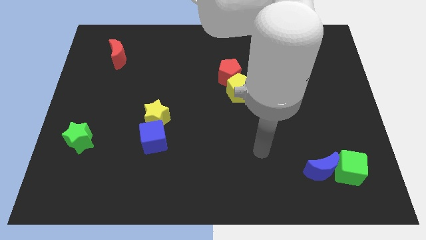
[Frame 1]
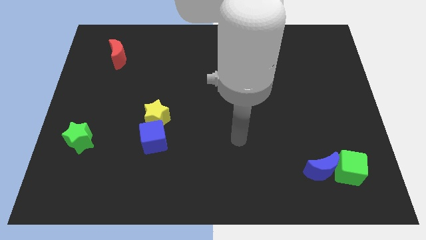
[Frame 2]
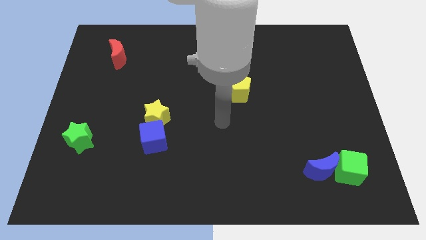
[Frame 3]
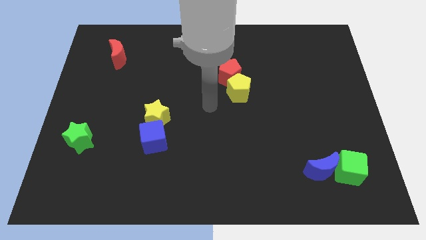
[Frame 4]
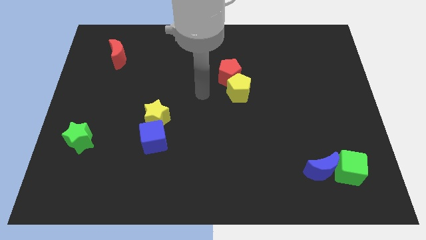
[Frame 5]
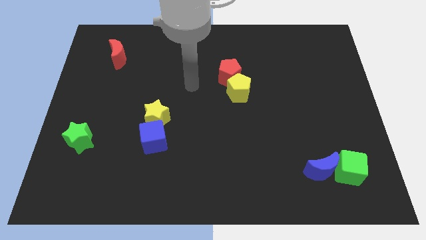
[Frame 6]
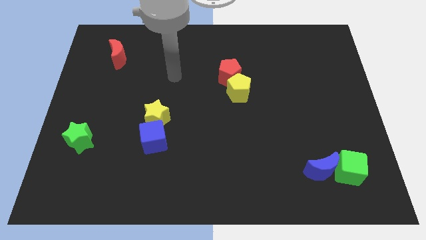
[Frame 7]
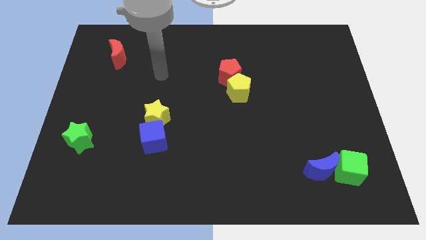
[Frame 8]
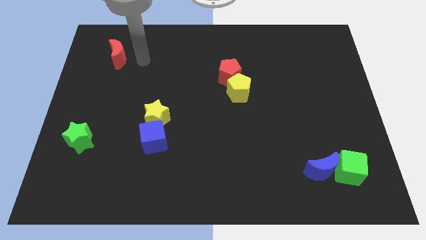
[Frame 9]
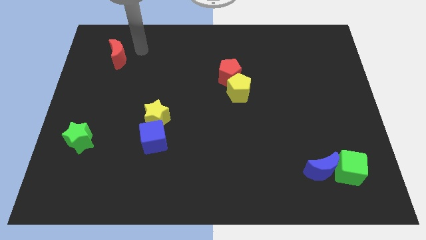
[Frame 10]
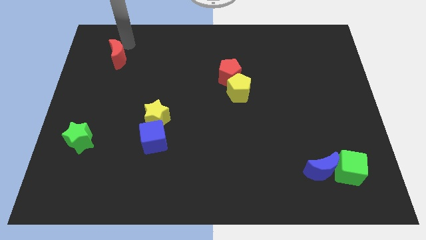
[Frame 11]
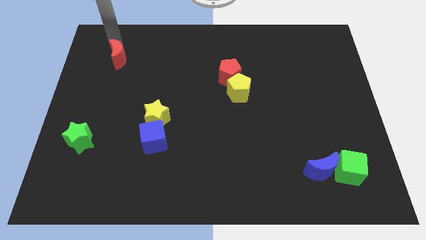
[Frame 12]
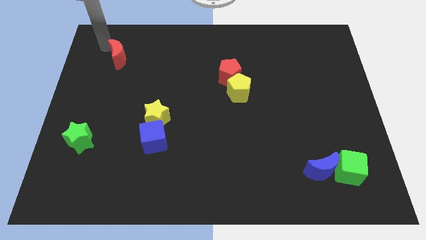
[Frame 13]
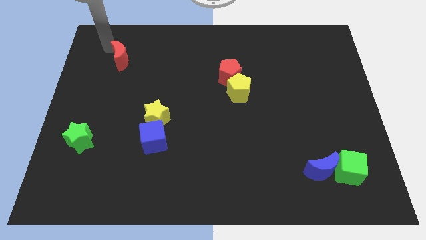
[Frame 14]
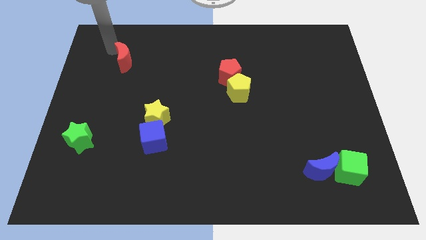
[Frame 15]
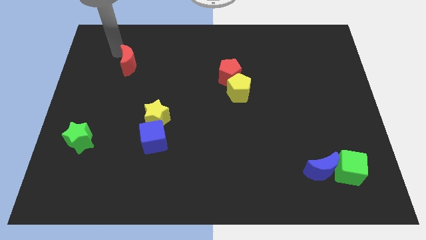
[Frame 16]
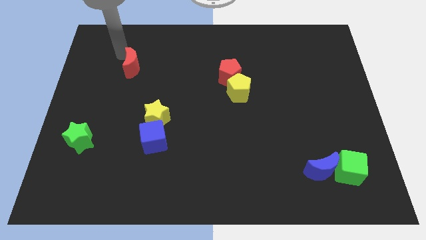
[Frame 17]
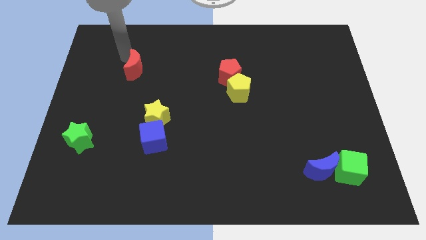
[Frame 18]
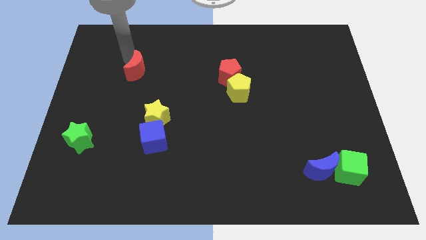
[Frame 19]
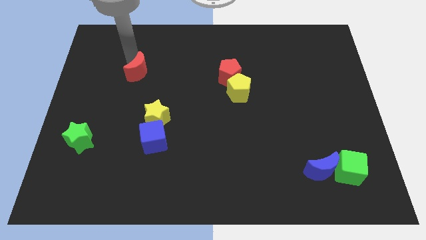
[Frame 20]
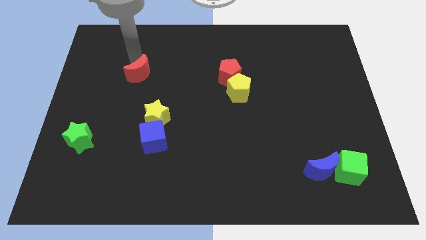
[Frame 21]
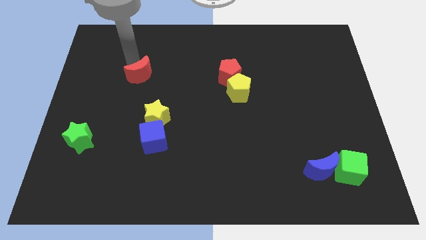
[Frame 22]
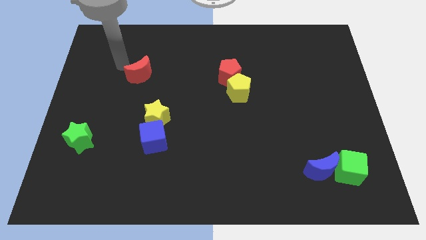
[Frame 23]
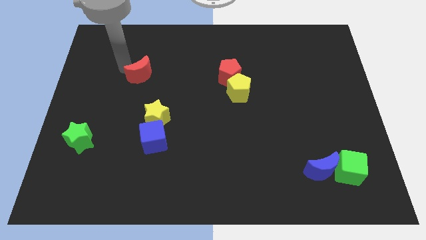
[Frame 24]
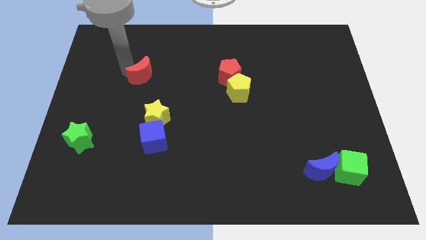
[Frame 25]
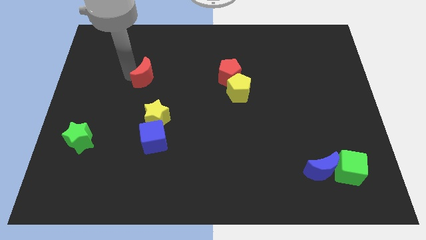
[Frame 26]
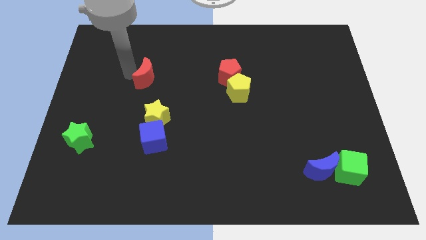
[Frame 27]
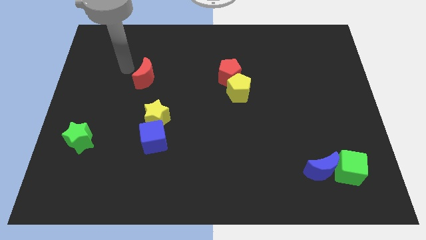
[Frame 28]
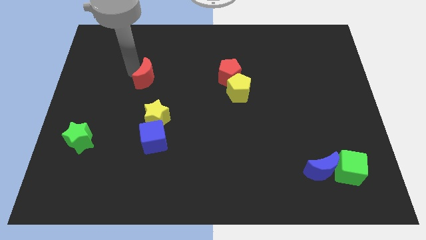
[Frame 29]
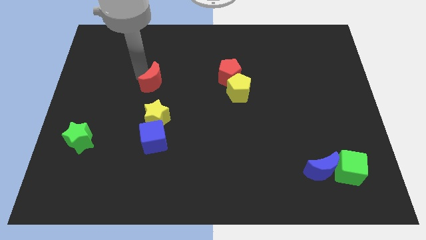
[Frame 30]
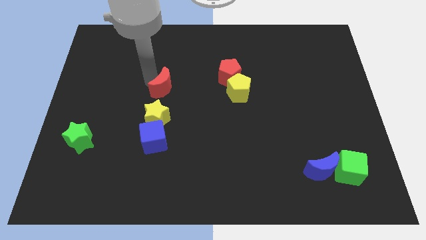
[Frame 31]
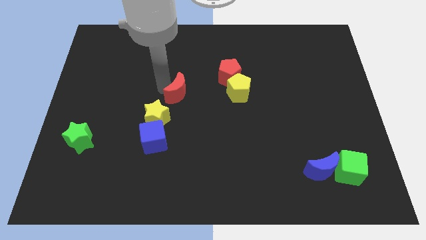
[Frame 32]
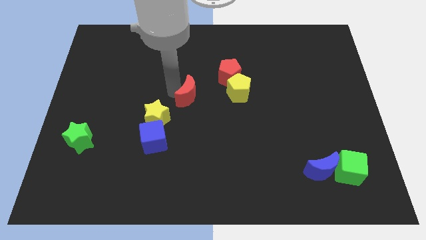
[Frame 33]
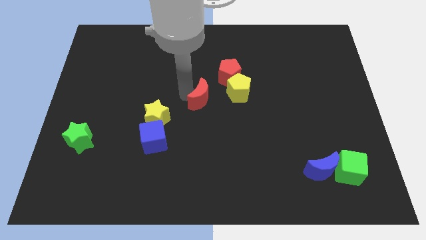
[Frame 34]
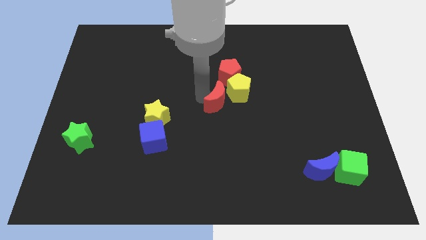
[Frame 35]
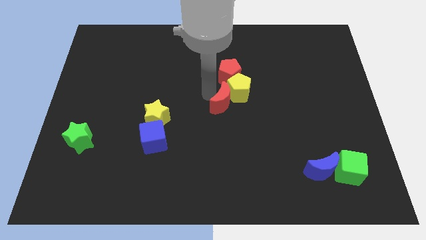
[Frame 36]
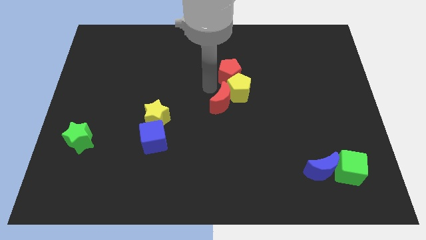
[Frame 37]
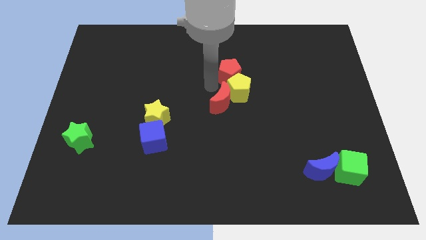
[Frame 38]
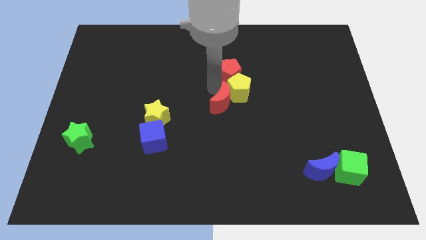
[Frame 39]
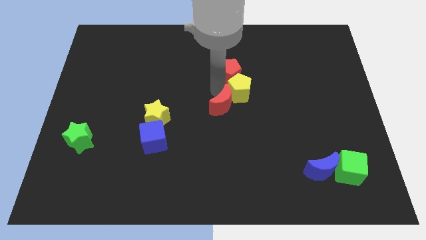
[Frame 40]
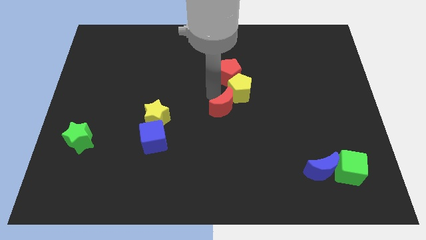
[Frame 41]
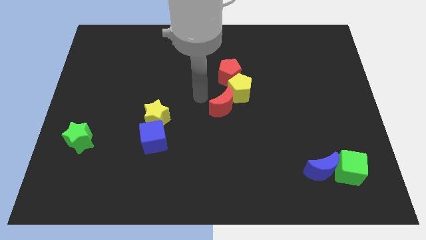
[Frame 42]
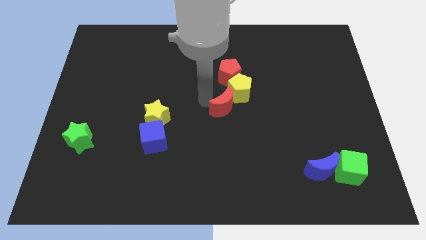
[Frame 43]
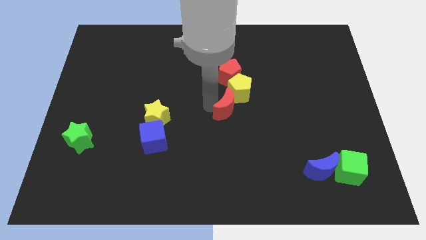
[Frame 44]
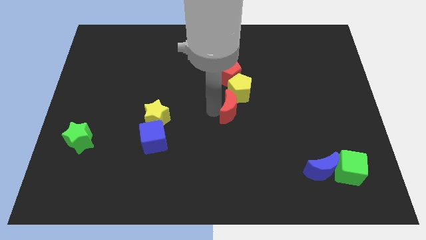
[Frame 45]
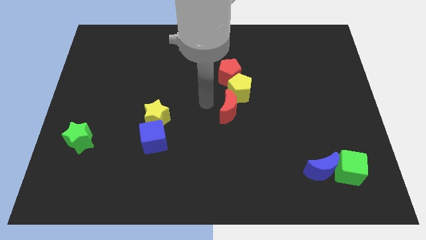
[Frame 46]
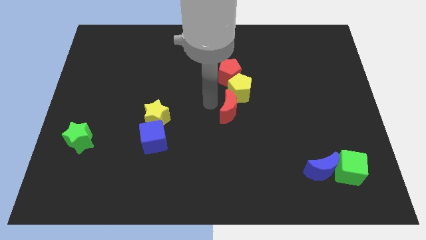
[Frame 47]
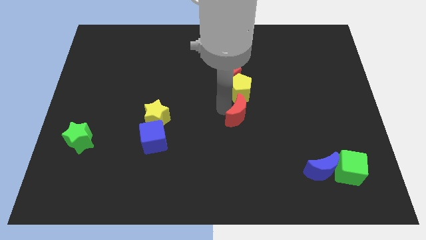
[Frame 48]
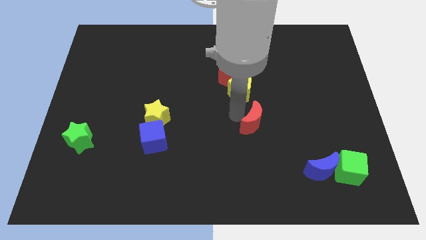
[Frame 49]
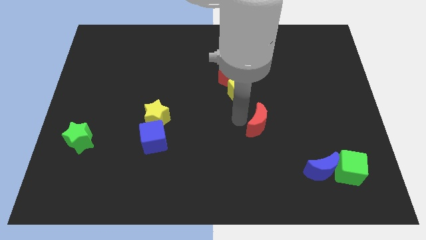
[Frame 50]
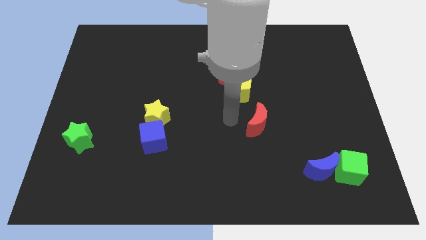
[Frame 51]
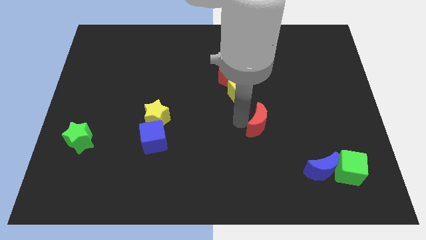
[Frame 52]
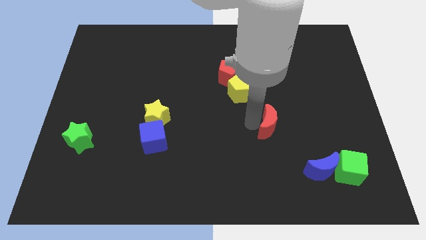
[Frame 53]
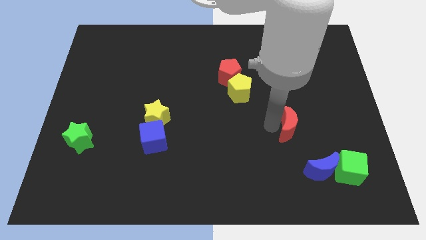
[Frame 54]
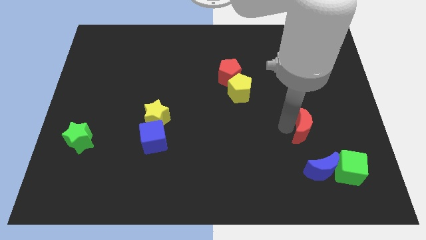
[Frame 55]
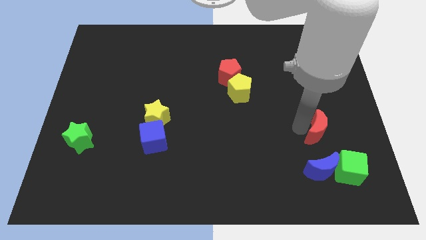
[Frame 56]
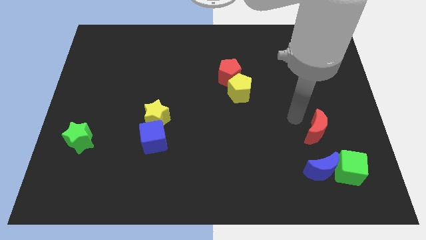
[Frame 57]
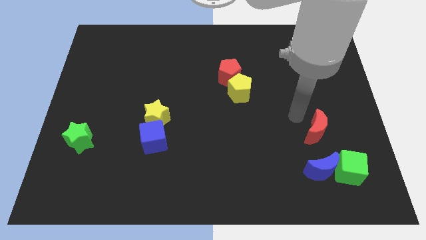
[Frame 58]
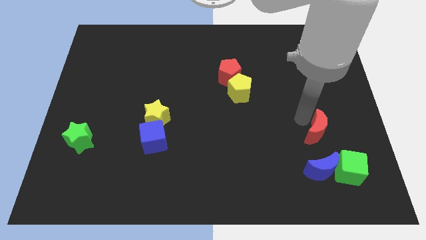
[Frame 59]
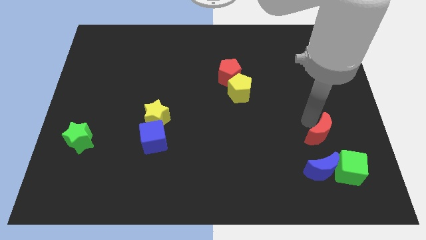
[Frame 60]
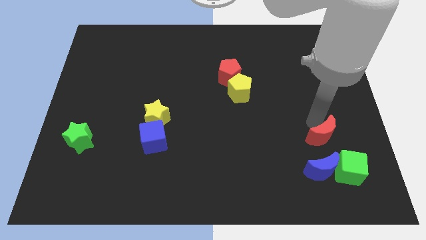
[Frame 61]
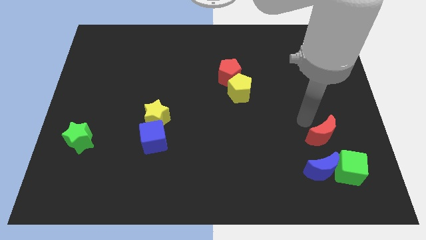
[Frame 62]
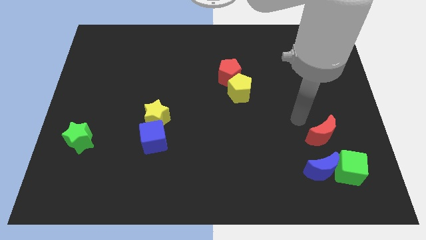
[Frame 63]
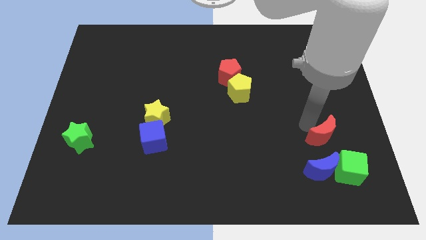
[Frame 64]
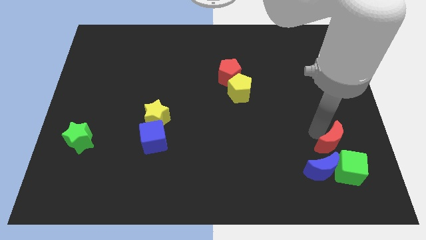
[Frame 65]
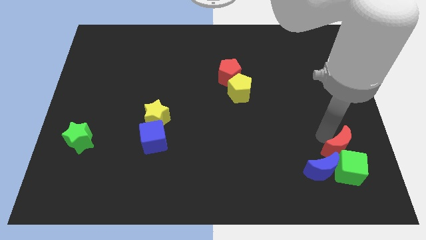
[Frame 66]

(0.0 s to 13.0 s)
push the red moon to the green cube

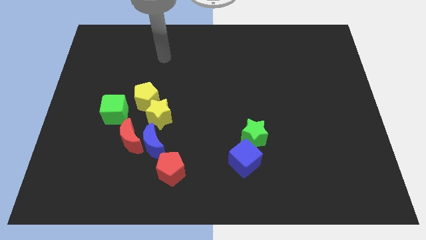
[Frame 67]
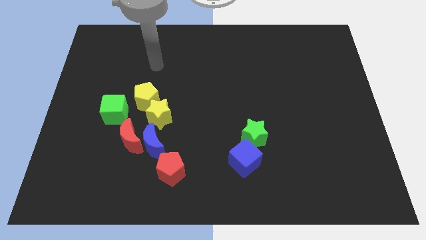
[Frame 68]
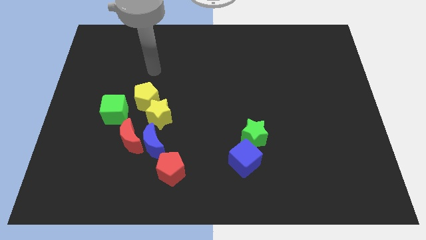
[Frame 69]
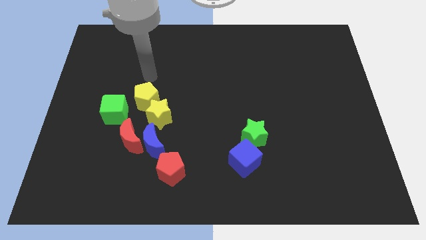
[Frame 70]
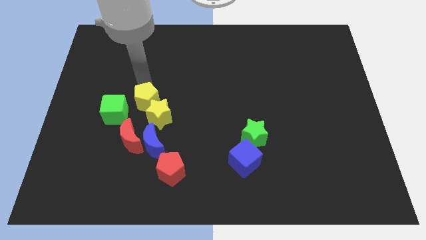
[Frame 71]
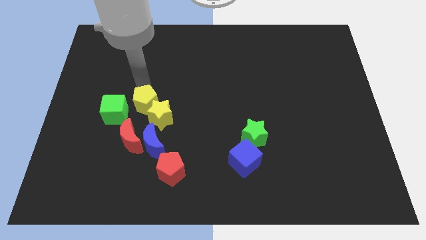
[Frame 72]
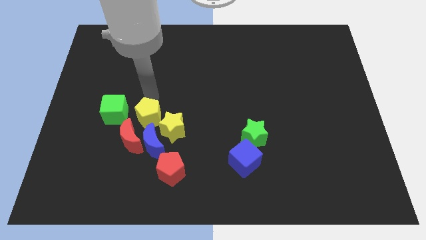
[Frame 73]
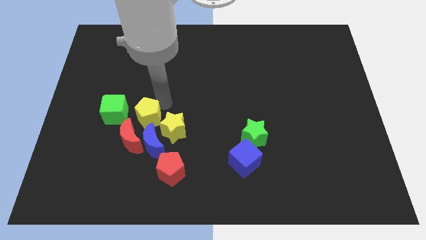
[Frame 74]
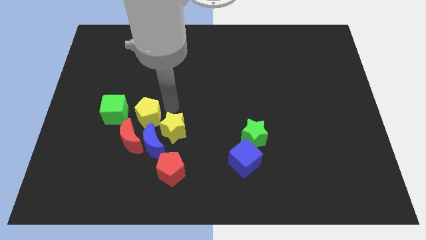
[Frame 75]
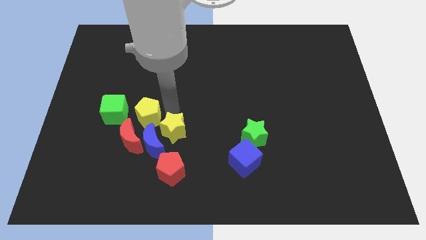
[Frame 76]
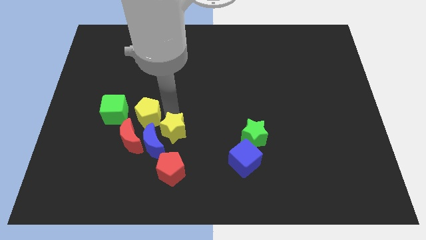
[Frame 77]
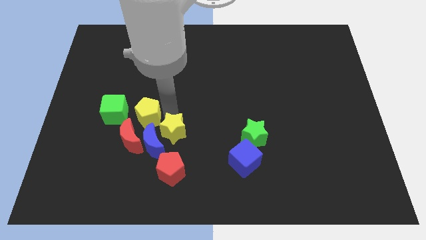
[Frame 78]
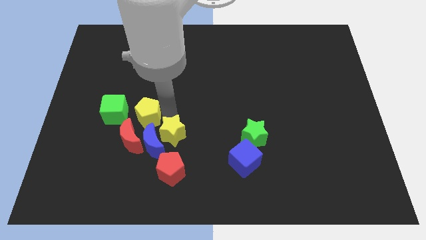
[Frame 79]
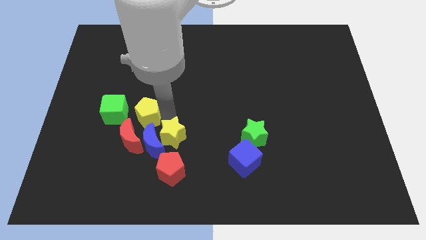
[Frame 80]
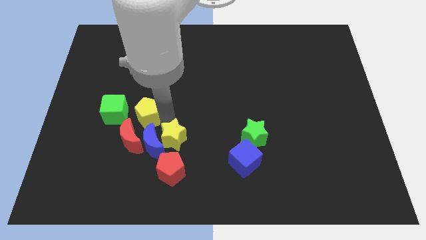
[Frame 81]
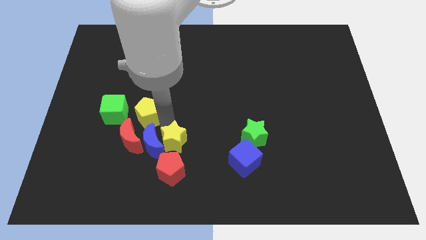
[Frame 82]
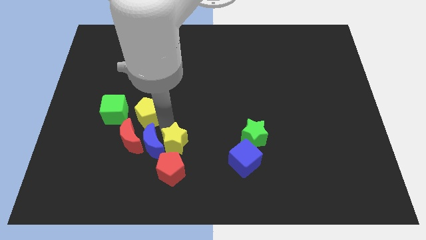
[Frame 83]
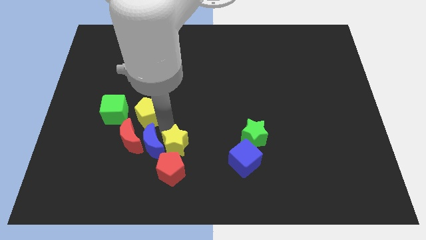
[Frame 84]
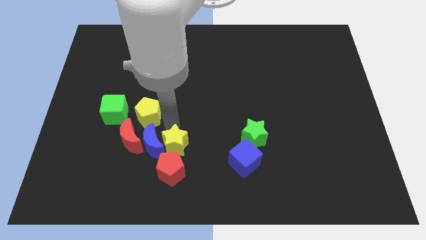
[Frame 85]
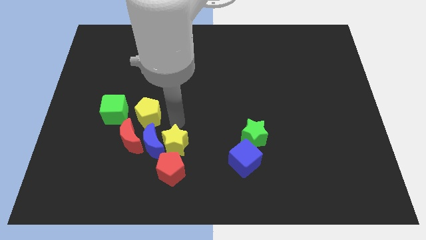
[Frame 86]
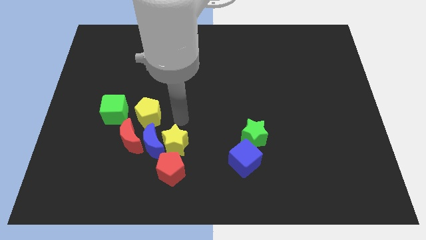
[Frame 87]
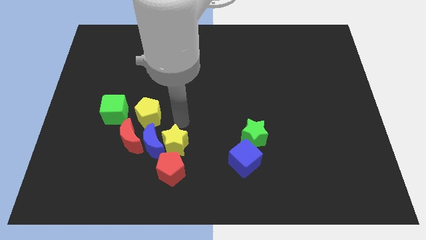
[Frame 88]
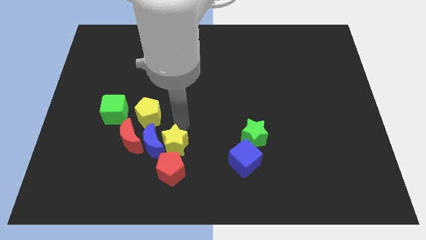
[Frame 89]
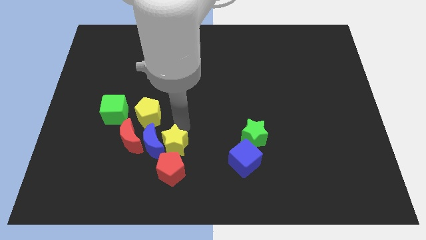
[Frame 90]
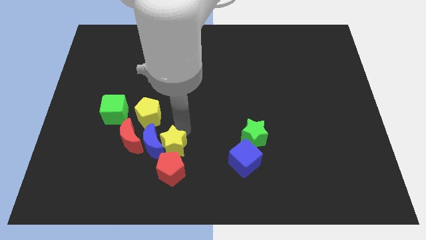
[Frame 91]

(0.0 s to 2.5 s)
slide the yellow star close to the red pentagon
